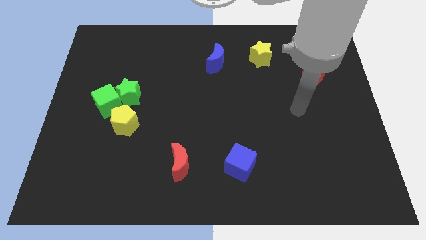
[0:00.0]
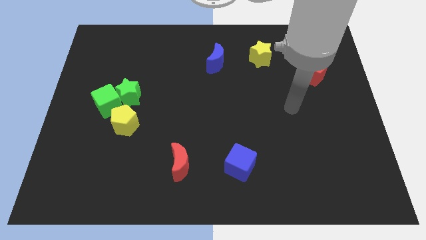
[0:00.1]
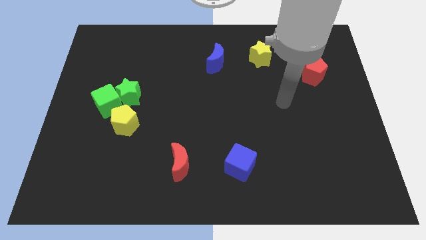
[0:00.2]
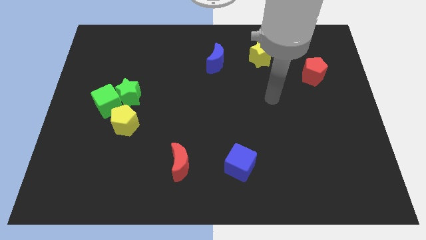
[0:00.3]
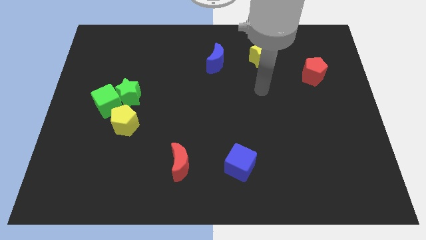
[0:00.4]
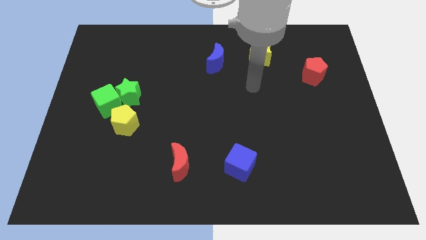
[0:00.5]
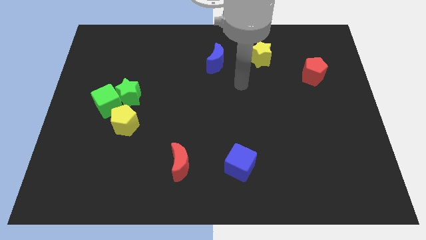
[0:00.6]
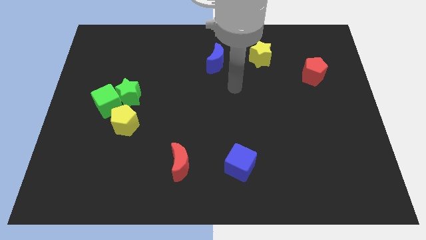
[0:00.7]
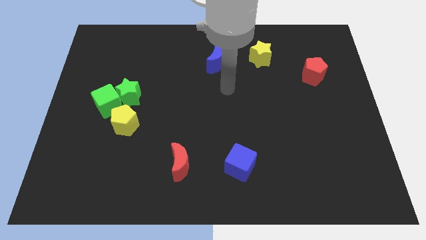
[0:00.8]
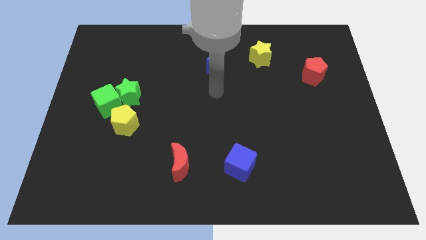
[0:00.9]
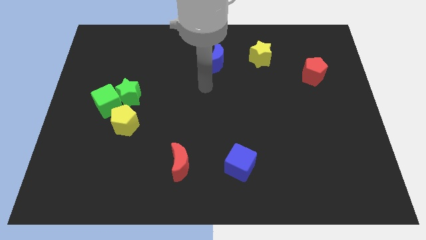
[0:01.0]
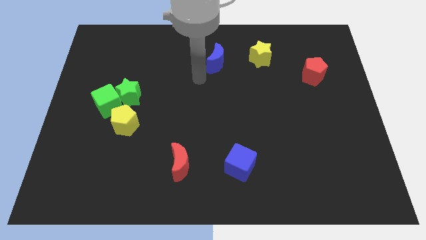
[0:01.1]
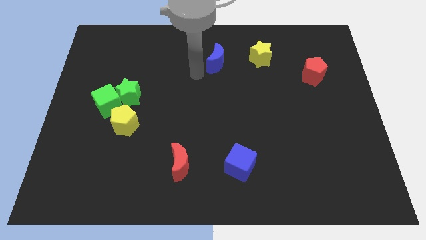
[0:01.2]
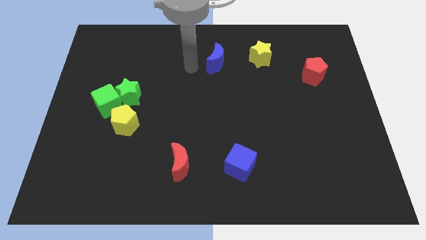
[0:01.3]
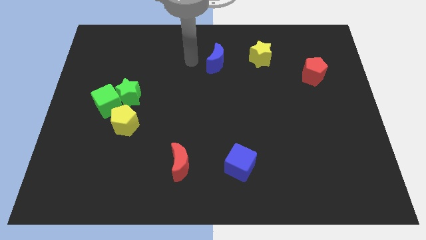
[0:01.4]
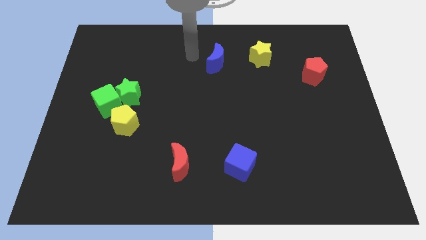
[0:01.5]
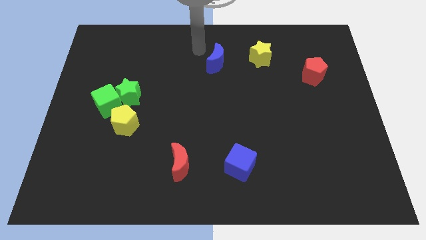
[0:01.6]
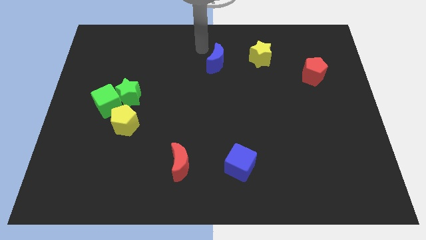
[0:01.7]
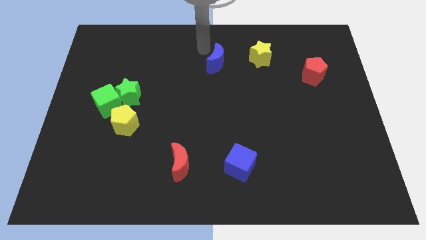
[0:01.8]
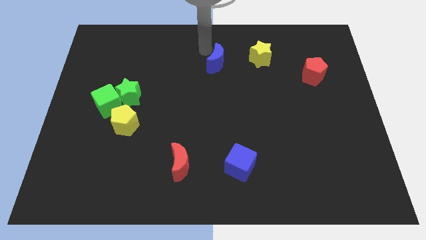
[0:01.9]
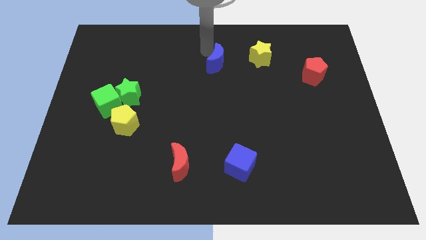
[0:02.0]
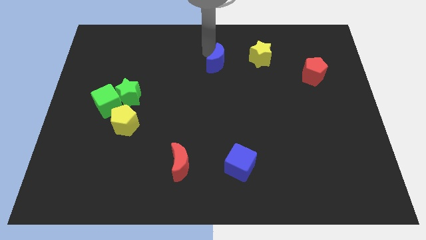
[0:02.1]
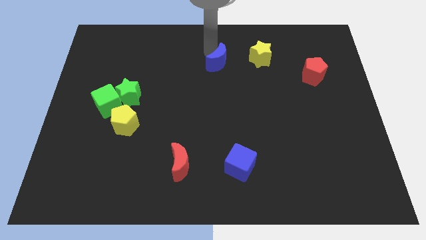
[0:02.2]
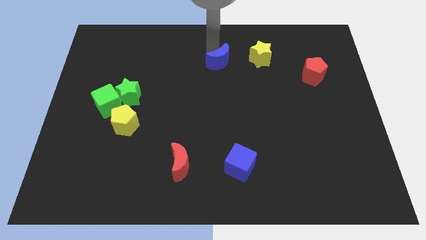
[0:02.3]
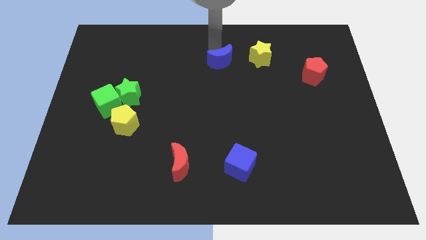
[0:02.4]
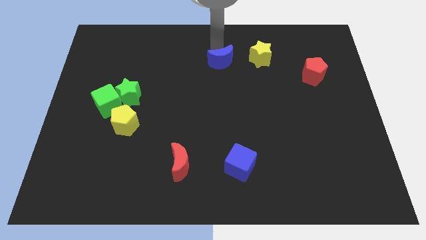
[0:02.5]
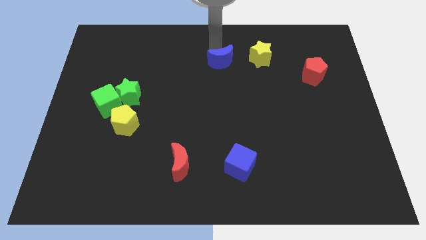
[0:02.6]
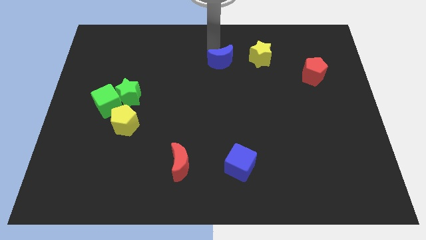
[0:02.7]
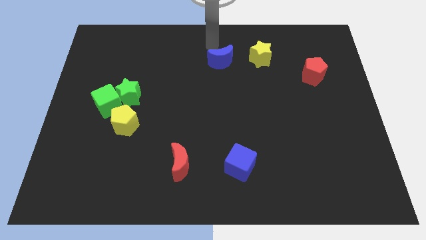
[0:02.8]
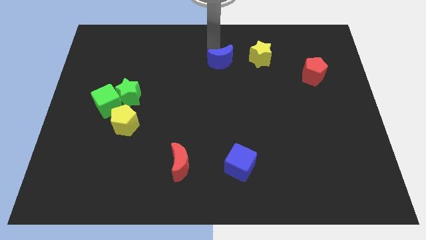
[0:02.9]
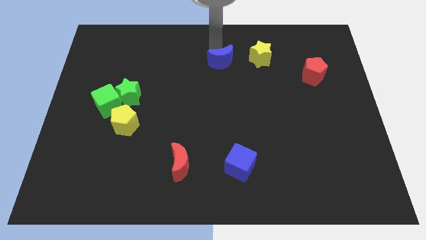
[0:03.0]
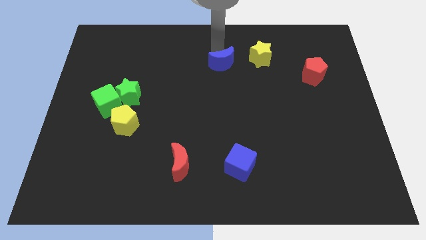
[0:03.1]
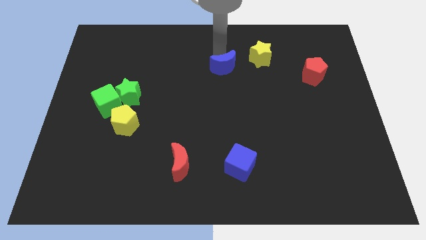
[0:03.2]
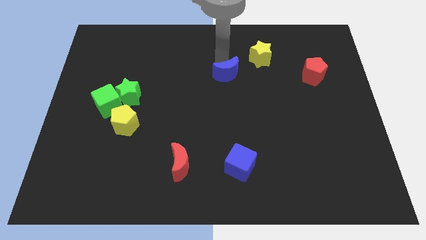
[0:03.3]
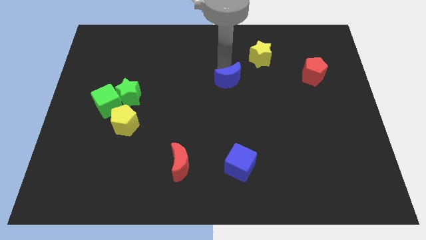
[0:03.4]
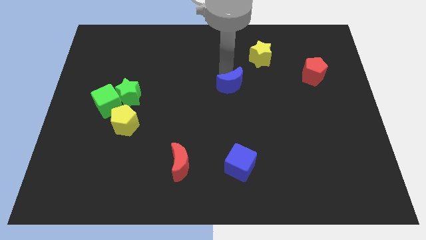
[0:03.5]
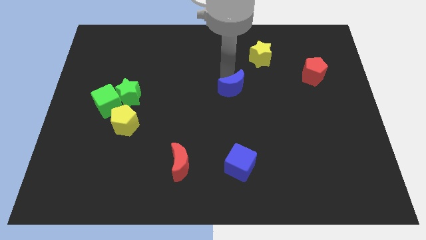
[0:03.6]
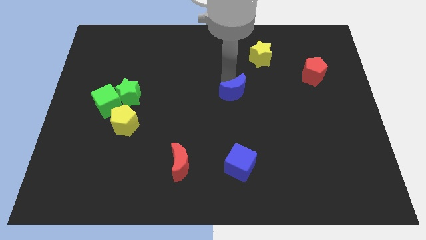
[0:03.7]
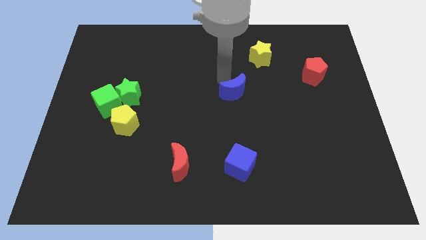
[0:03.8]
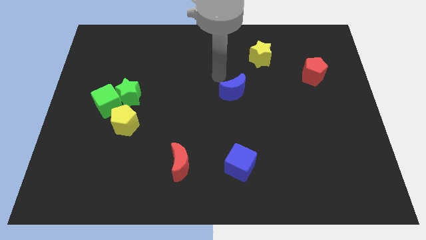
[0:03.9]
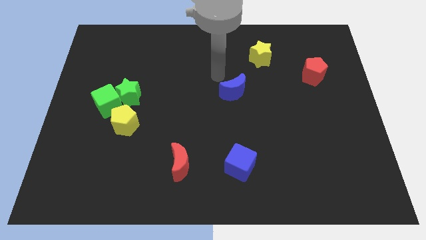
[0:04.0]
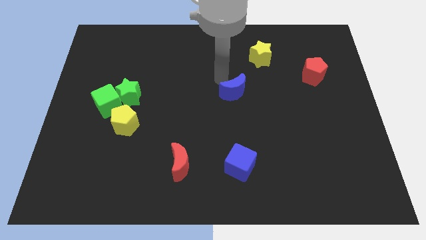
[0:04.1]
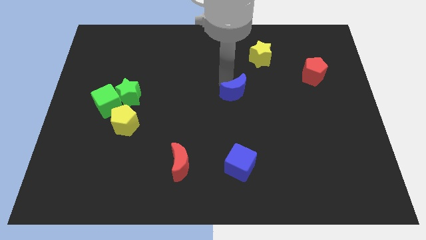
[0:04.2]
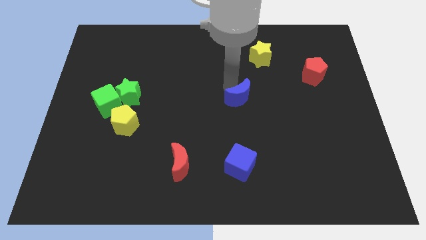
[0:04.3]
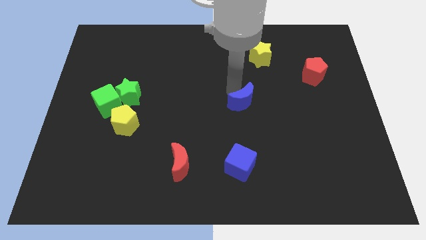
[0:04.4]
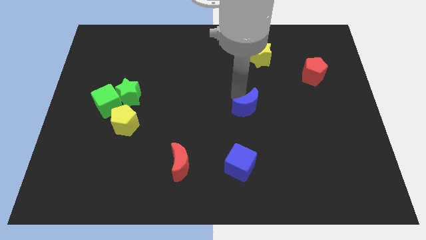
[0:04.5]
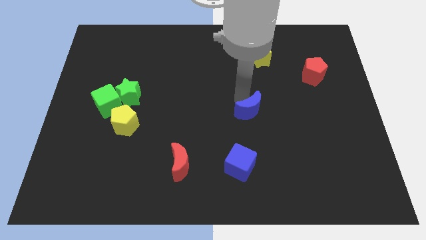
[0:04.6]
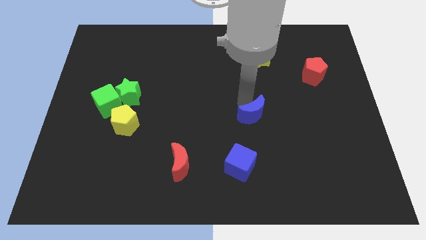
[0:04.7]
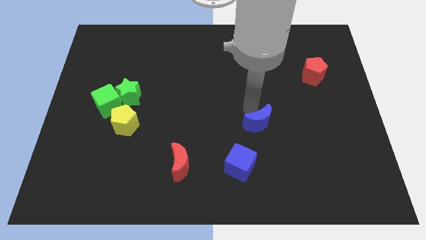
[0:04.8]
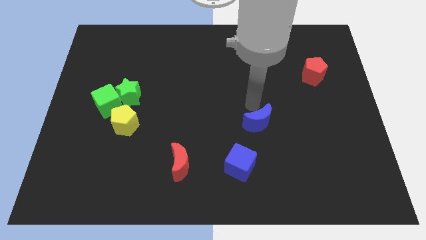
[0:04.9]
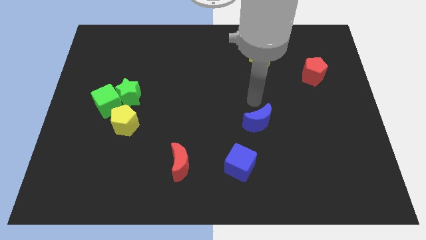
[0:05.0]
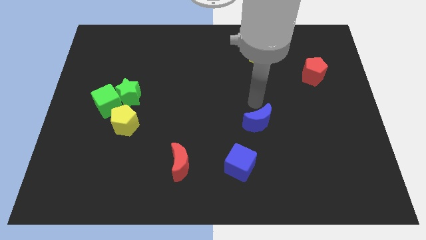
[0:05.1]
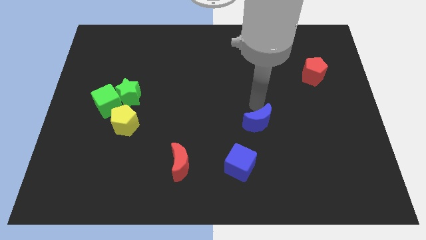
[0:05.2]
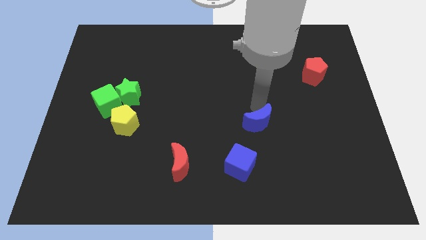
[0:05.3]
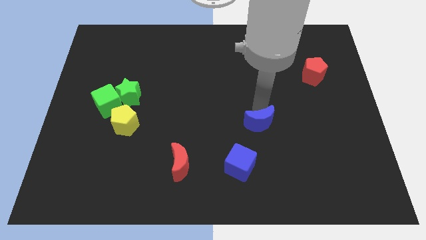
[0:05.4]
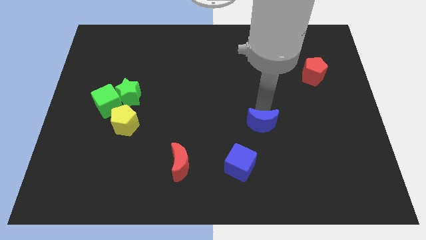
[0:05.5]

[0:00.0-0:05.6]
put the blue moon to the top right of the blue cube

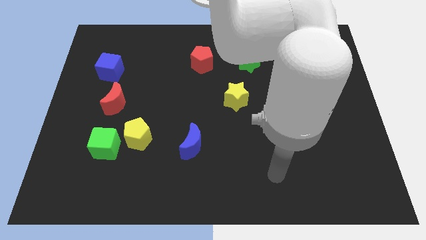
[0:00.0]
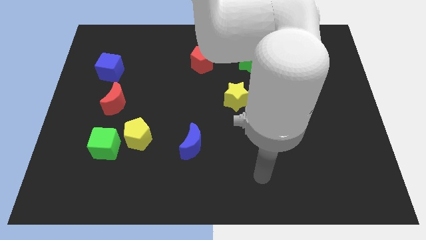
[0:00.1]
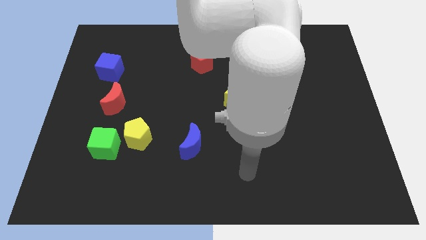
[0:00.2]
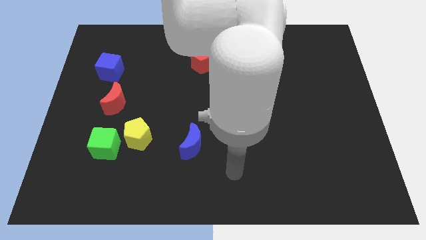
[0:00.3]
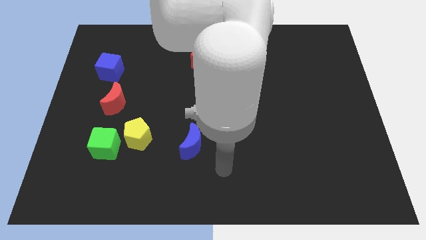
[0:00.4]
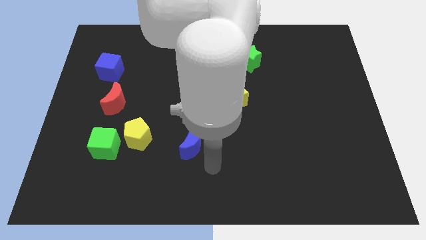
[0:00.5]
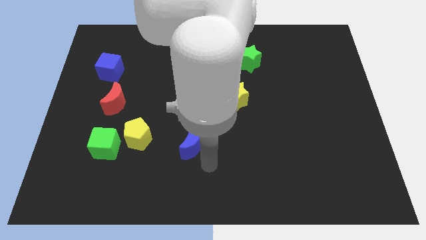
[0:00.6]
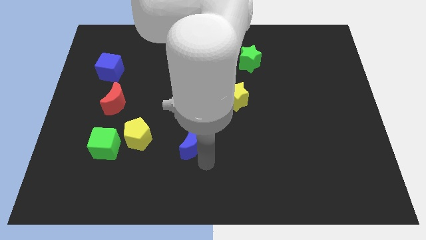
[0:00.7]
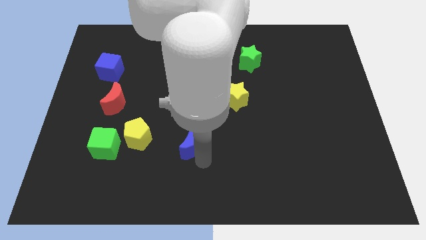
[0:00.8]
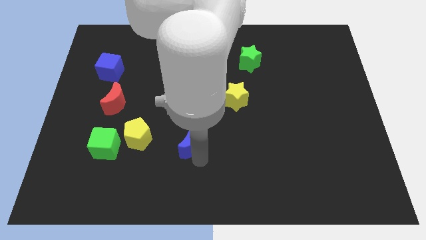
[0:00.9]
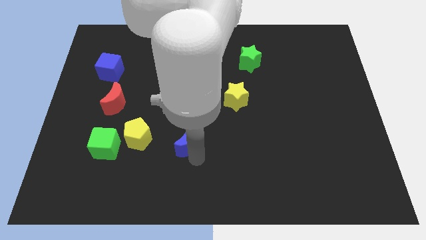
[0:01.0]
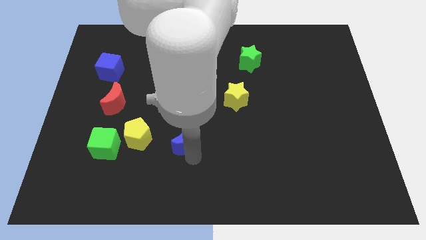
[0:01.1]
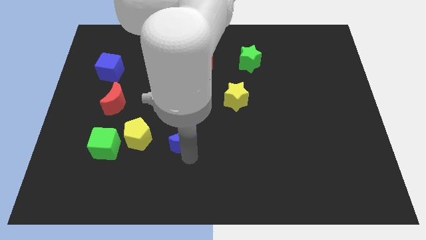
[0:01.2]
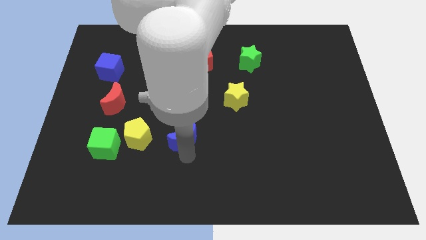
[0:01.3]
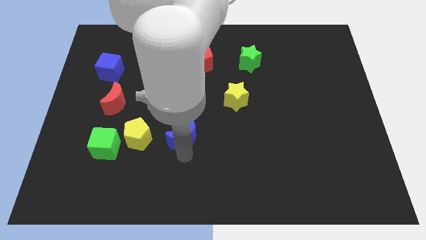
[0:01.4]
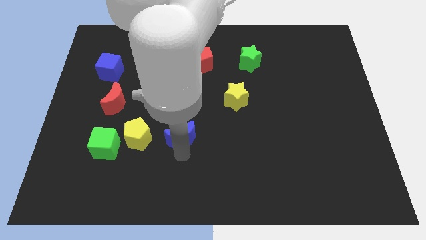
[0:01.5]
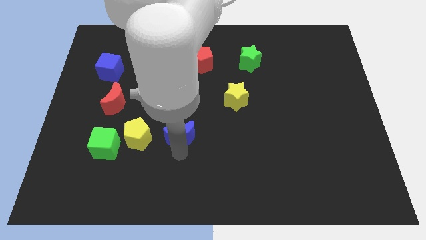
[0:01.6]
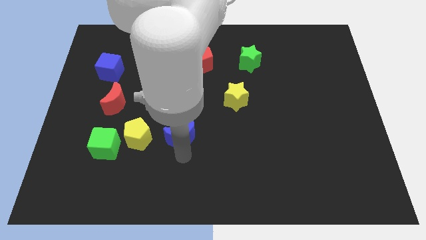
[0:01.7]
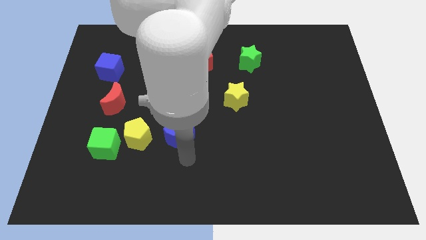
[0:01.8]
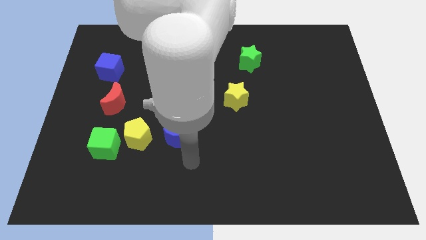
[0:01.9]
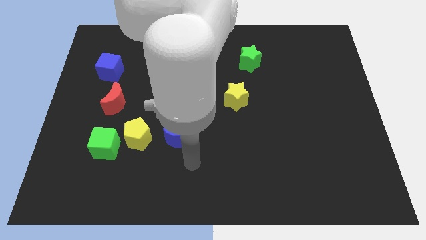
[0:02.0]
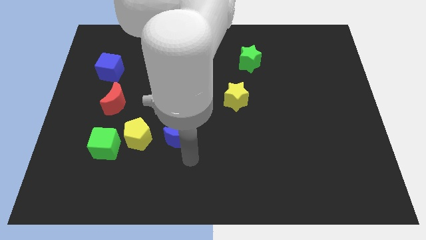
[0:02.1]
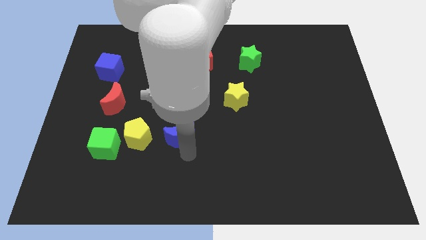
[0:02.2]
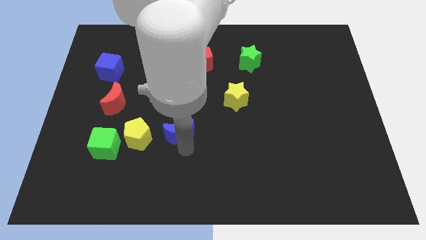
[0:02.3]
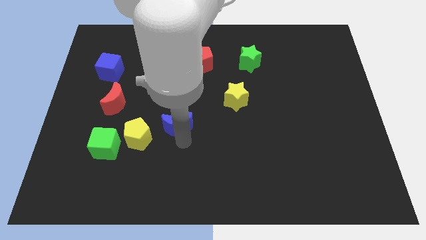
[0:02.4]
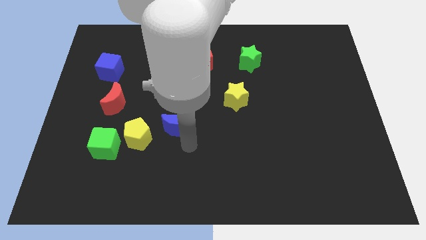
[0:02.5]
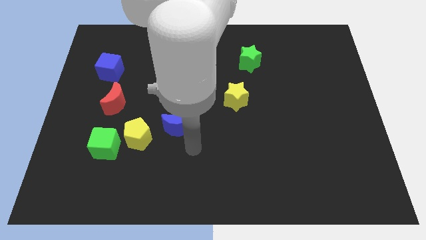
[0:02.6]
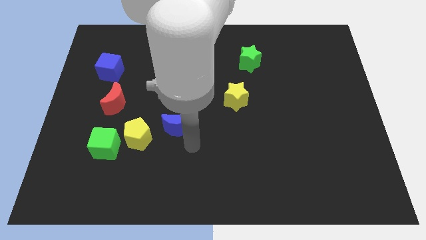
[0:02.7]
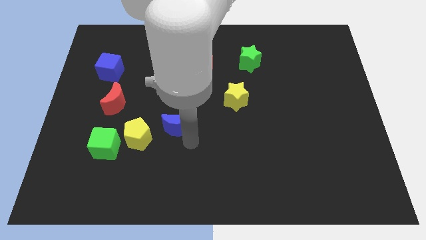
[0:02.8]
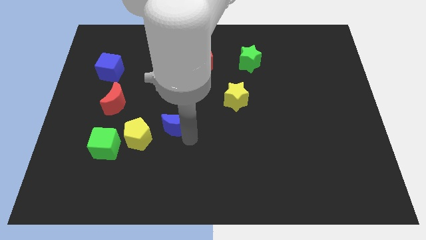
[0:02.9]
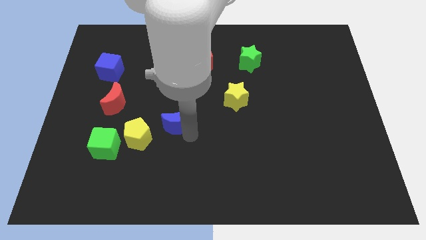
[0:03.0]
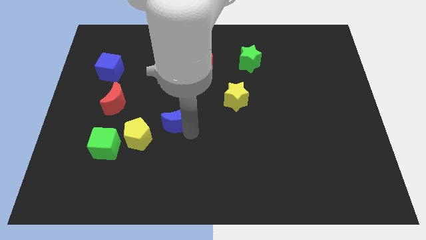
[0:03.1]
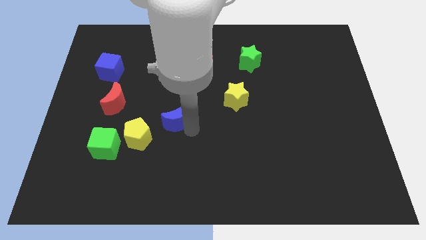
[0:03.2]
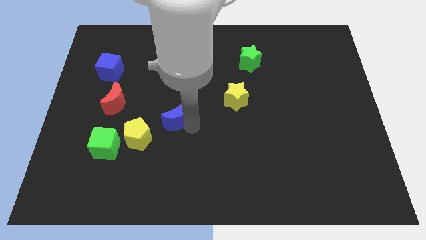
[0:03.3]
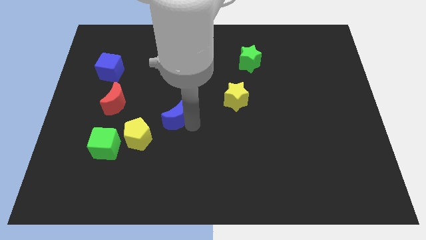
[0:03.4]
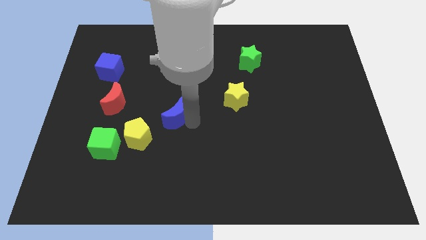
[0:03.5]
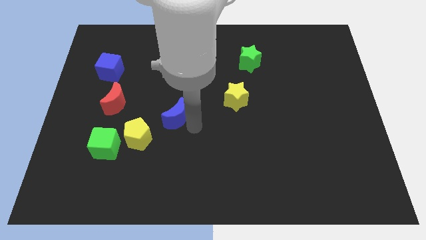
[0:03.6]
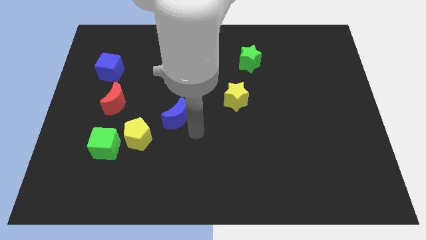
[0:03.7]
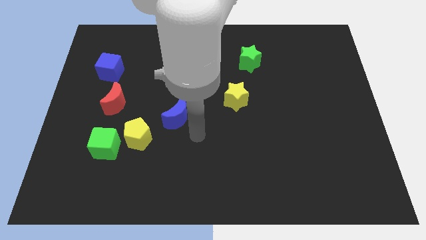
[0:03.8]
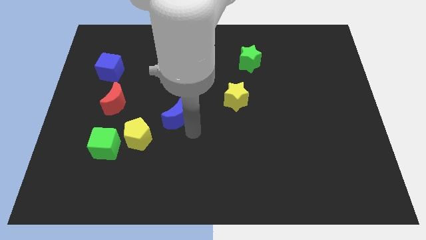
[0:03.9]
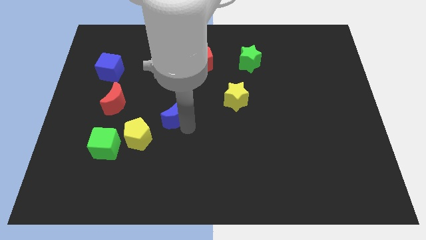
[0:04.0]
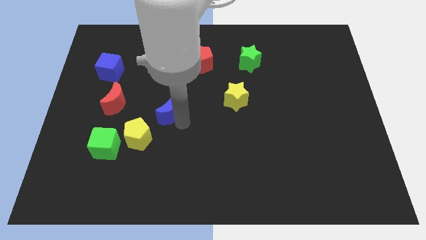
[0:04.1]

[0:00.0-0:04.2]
slide the blue moon just right of the red moon
